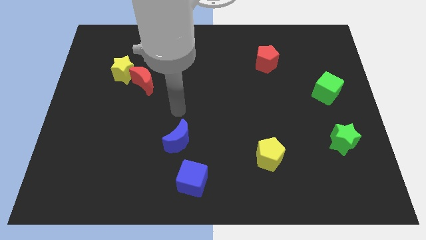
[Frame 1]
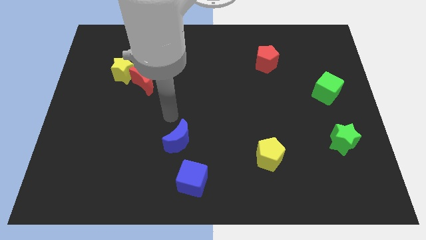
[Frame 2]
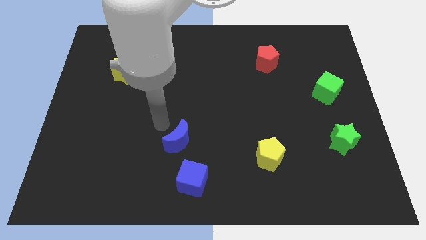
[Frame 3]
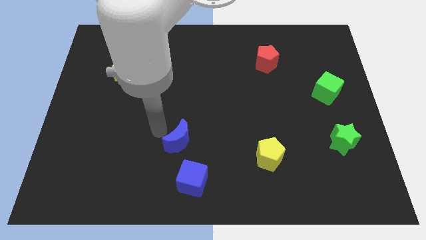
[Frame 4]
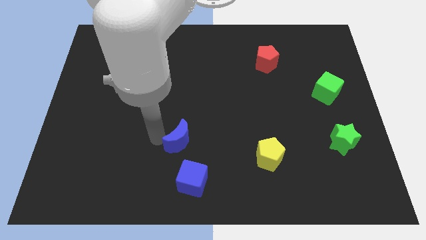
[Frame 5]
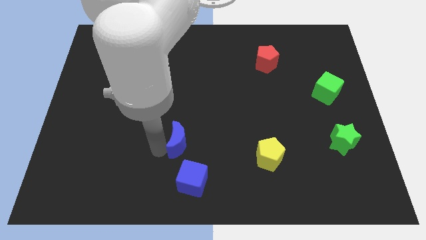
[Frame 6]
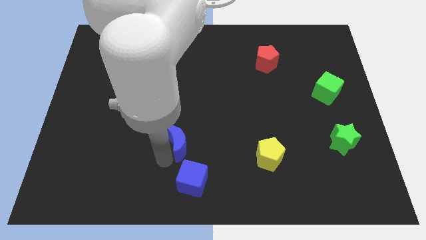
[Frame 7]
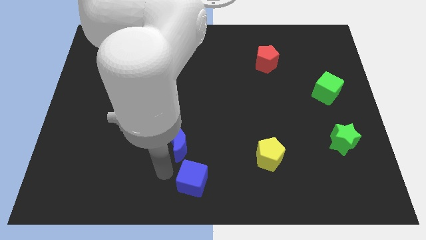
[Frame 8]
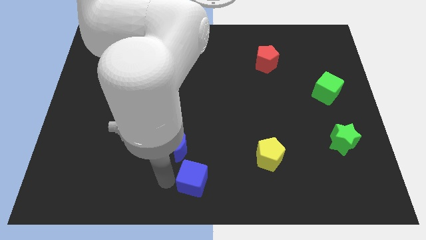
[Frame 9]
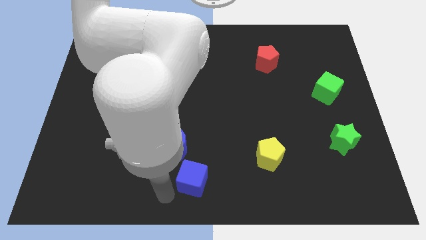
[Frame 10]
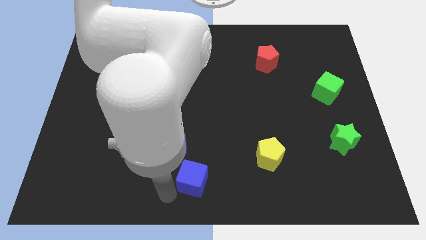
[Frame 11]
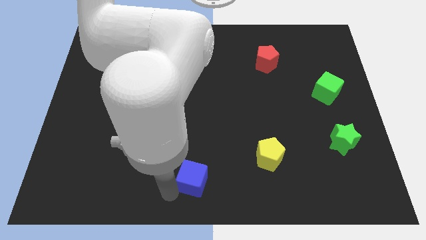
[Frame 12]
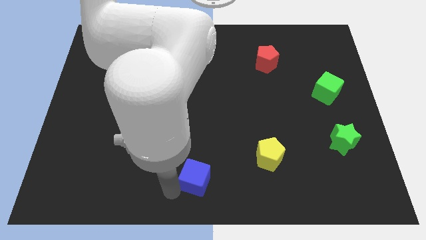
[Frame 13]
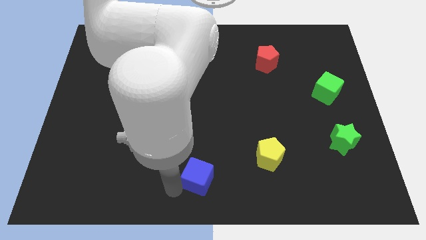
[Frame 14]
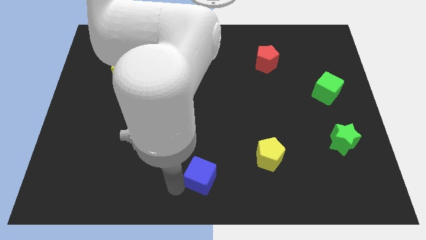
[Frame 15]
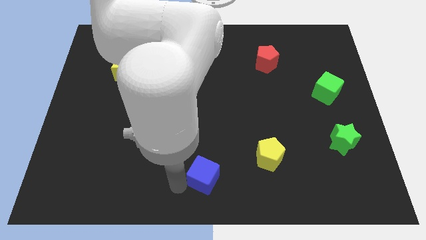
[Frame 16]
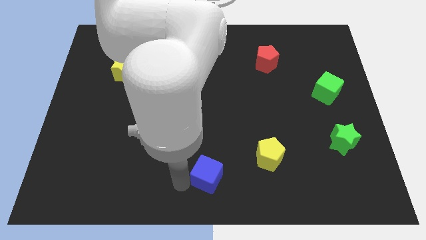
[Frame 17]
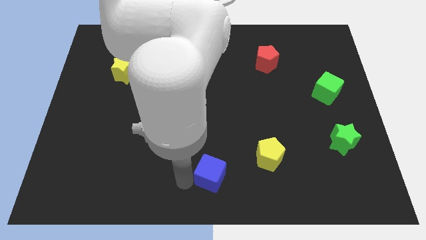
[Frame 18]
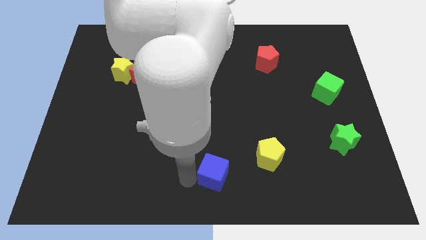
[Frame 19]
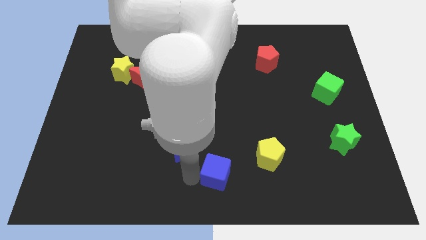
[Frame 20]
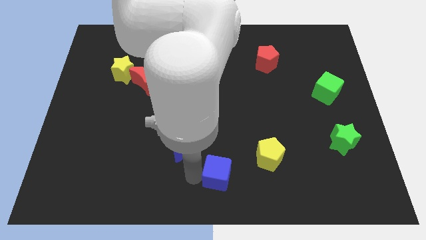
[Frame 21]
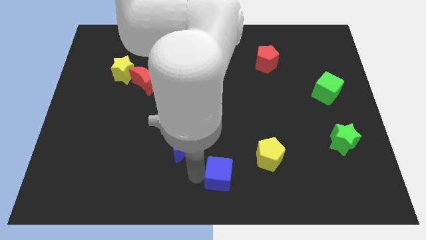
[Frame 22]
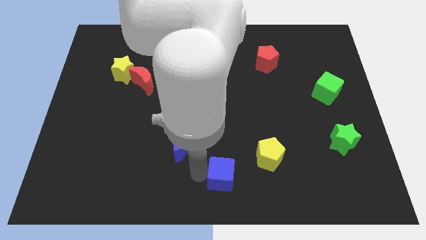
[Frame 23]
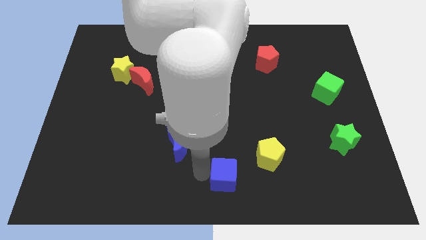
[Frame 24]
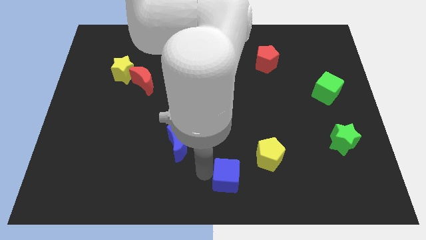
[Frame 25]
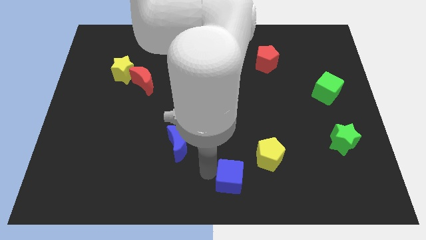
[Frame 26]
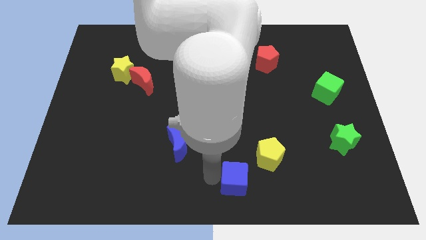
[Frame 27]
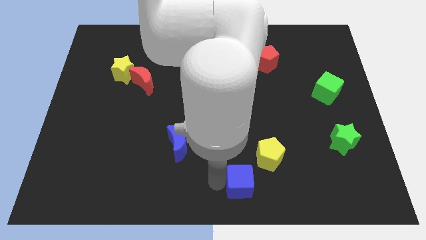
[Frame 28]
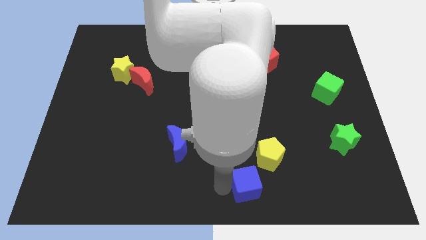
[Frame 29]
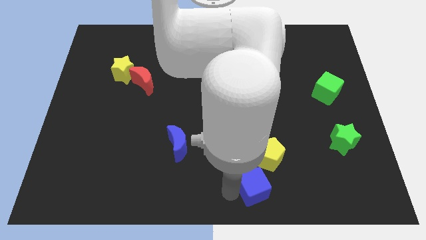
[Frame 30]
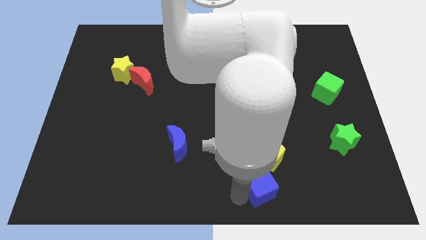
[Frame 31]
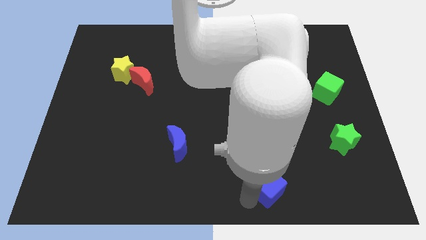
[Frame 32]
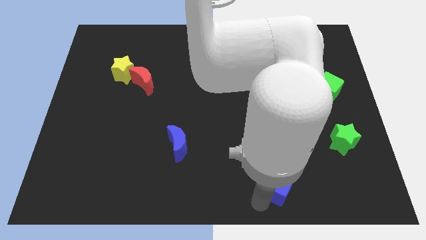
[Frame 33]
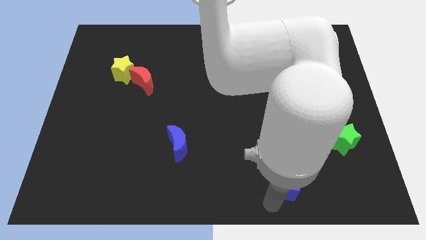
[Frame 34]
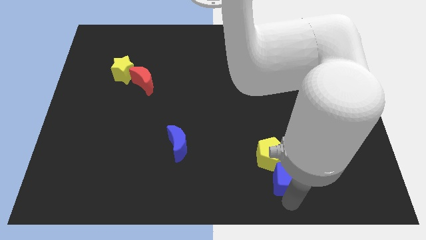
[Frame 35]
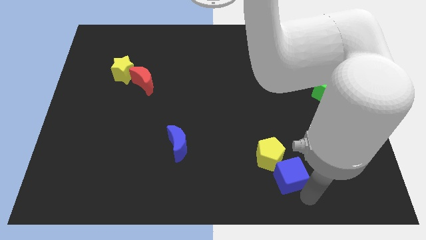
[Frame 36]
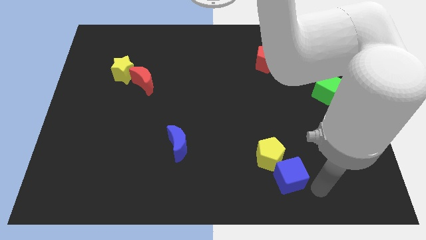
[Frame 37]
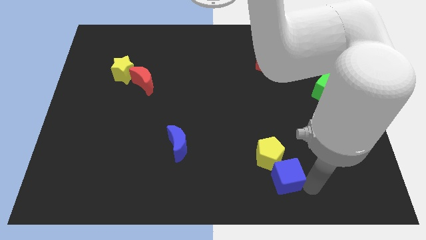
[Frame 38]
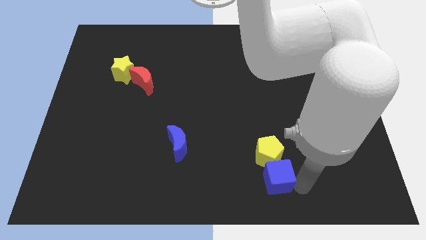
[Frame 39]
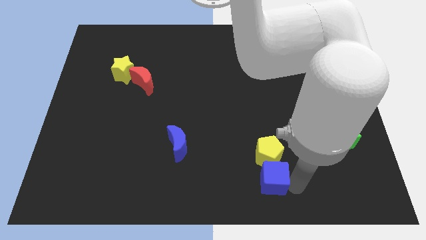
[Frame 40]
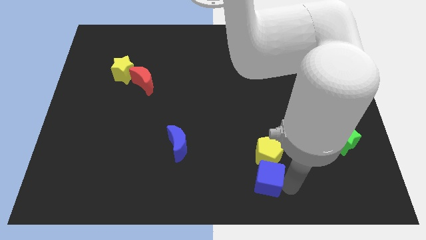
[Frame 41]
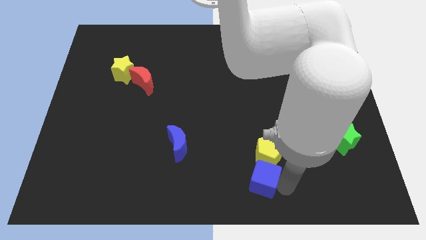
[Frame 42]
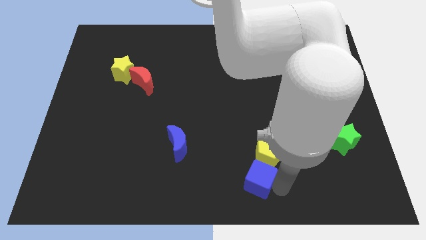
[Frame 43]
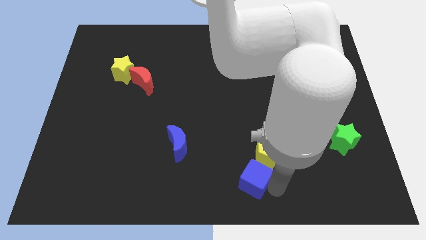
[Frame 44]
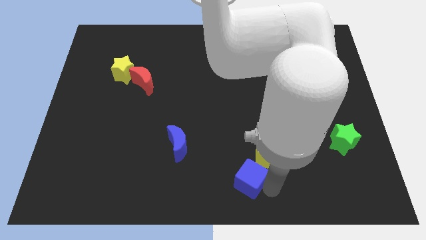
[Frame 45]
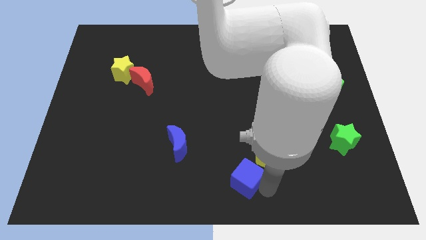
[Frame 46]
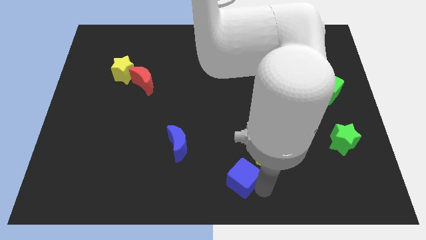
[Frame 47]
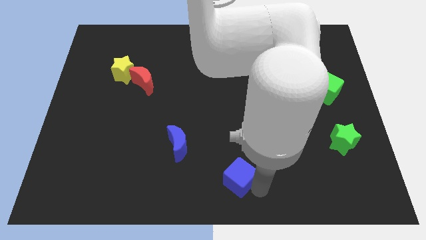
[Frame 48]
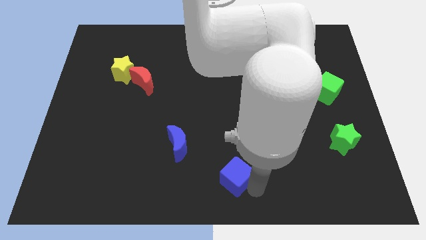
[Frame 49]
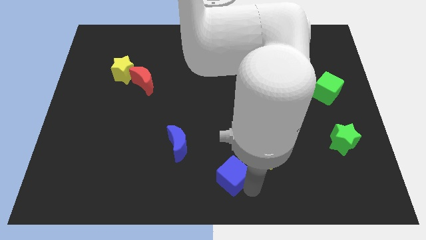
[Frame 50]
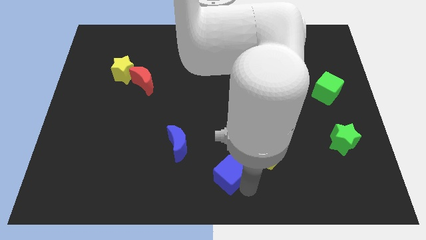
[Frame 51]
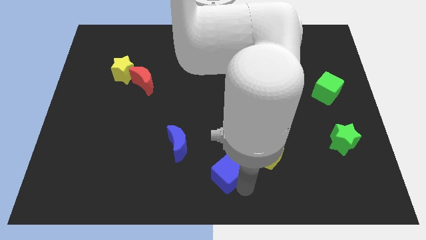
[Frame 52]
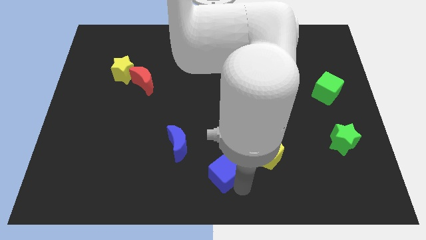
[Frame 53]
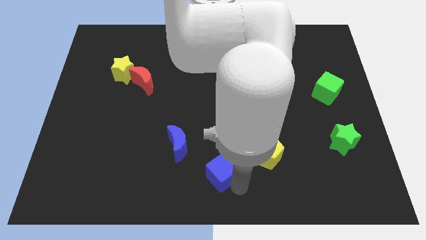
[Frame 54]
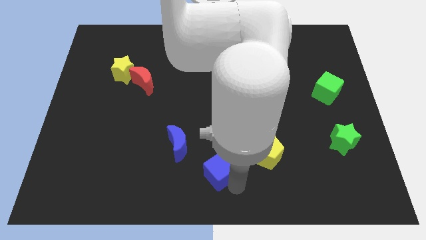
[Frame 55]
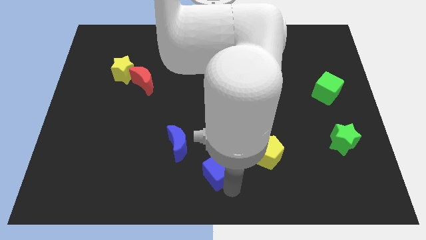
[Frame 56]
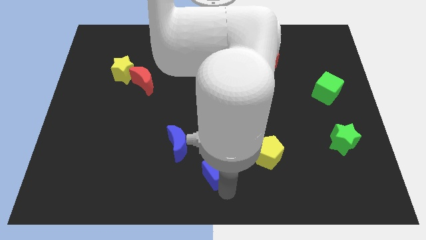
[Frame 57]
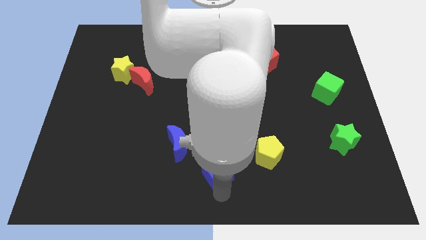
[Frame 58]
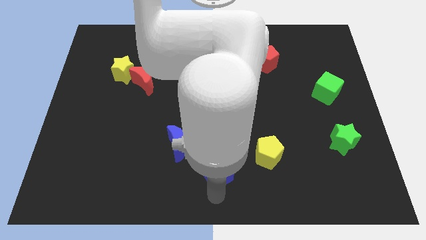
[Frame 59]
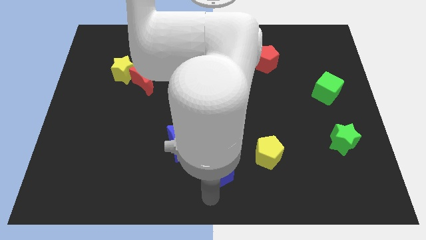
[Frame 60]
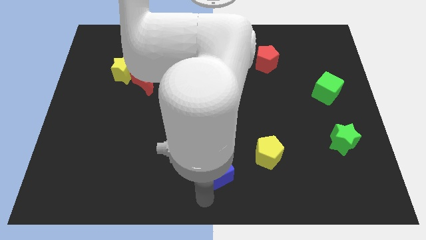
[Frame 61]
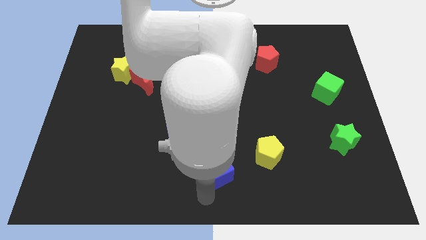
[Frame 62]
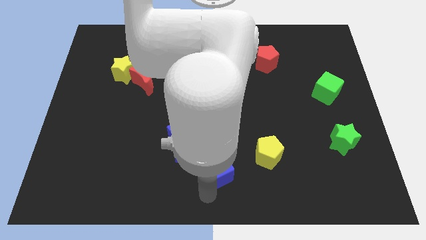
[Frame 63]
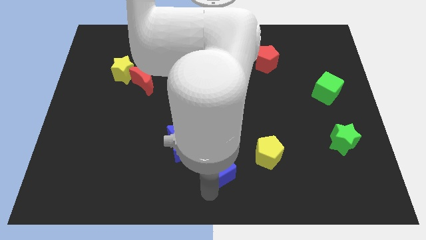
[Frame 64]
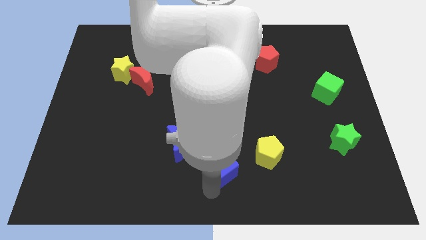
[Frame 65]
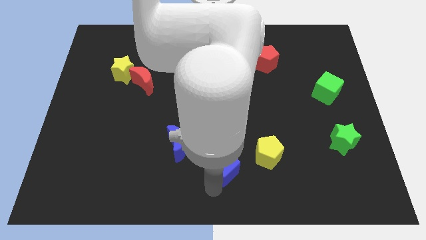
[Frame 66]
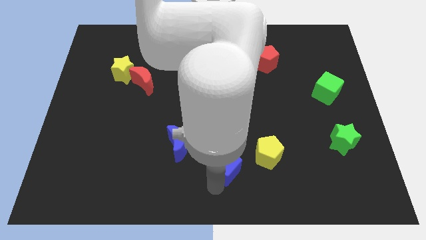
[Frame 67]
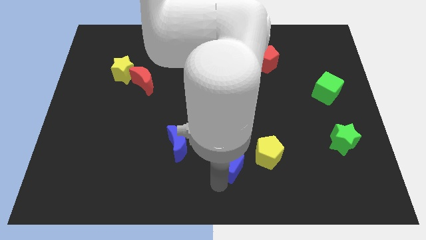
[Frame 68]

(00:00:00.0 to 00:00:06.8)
slide the blue cube slightly up and then right

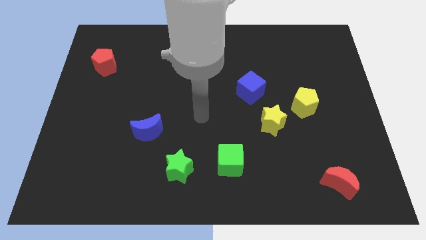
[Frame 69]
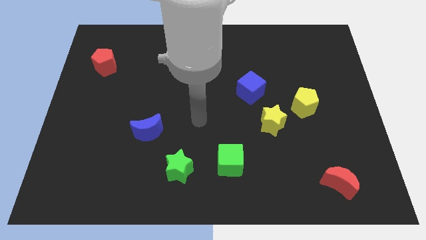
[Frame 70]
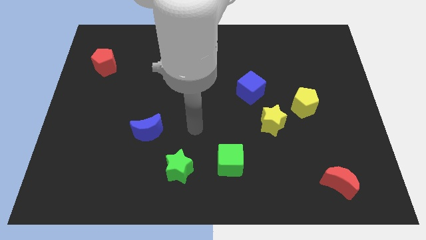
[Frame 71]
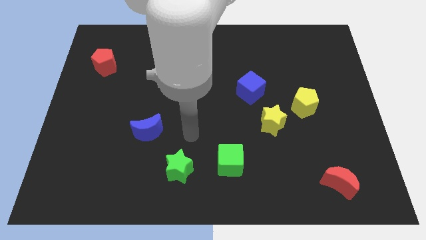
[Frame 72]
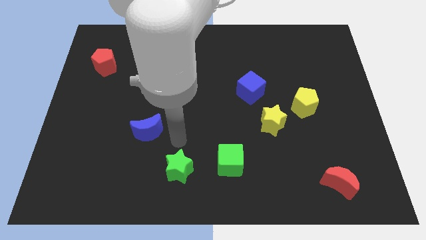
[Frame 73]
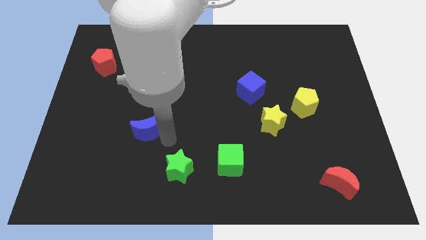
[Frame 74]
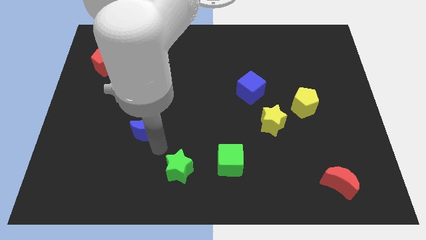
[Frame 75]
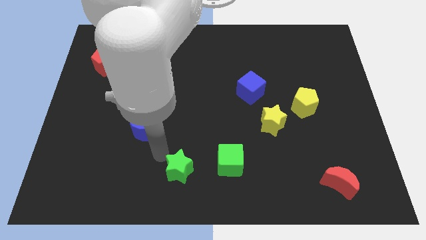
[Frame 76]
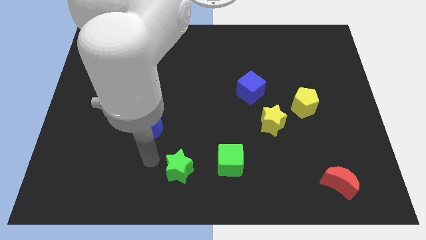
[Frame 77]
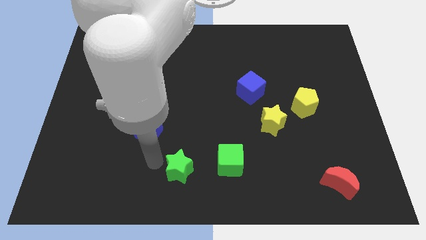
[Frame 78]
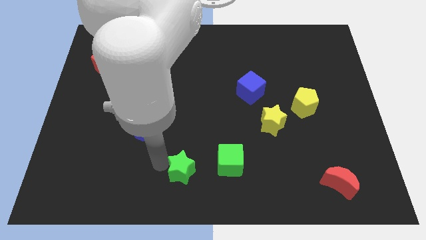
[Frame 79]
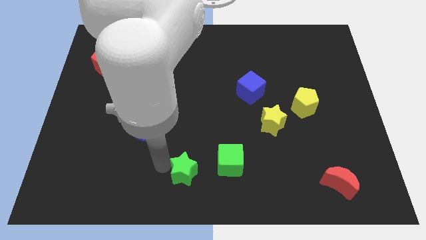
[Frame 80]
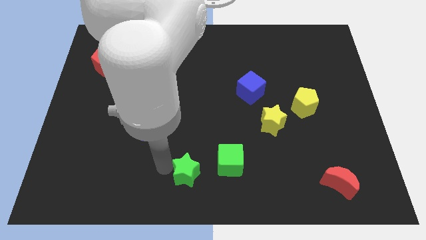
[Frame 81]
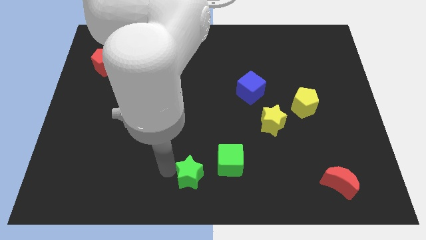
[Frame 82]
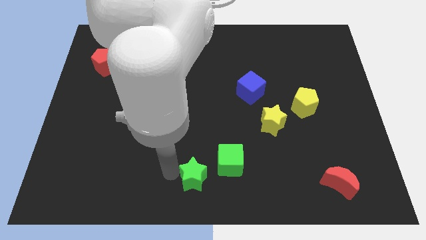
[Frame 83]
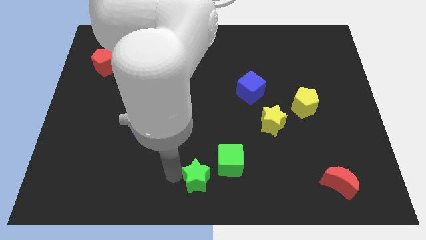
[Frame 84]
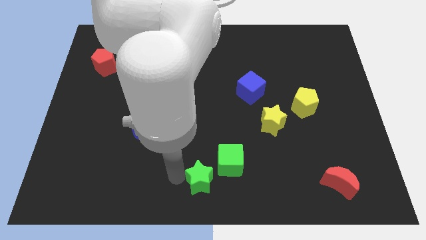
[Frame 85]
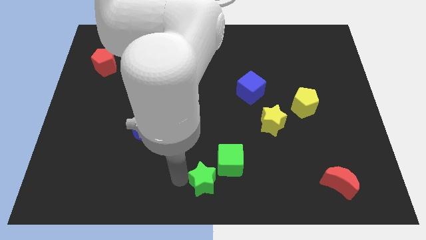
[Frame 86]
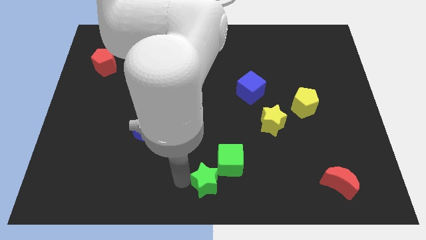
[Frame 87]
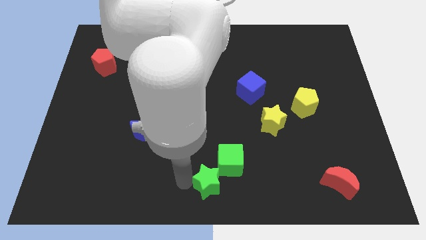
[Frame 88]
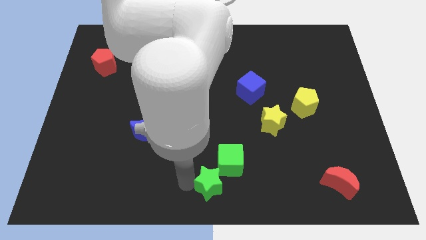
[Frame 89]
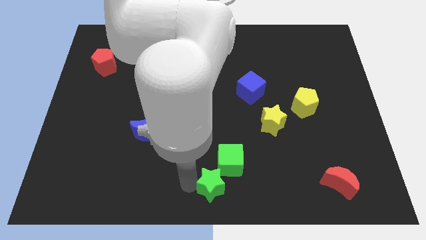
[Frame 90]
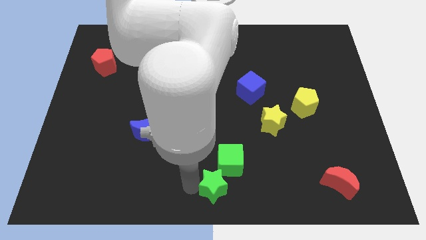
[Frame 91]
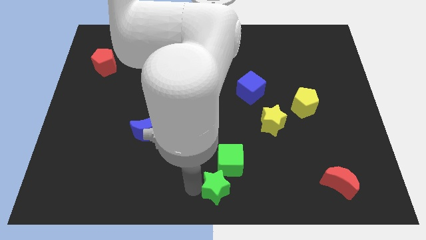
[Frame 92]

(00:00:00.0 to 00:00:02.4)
move the green star a bit to the right
